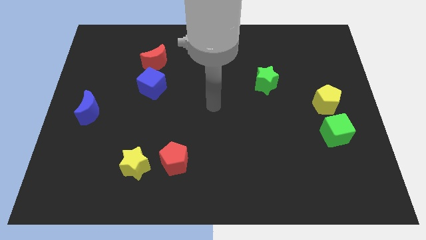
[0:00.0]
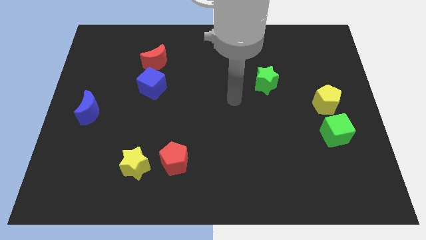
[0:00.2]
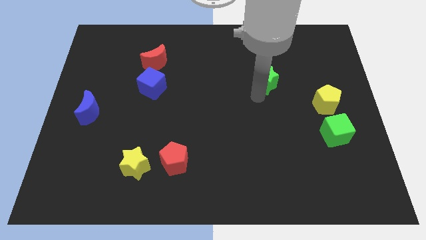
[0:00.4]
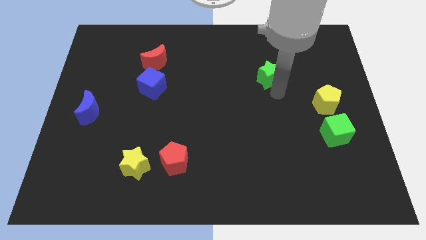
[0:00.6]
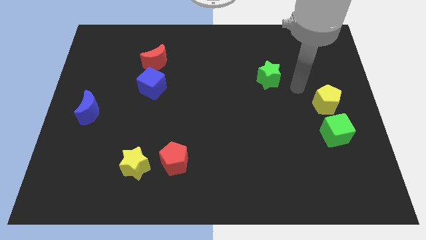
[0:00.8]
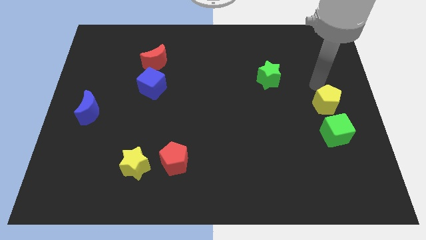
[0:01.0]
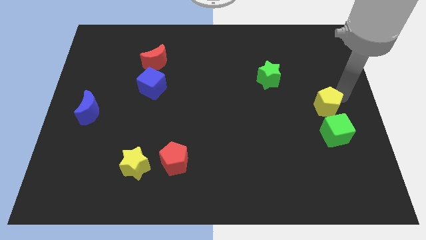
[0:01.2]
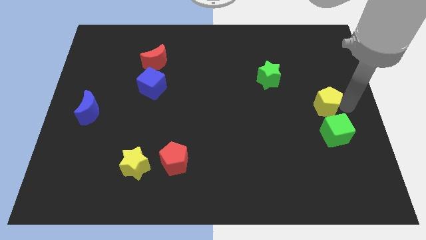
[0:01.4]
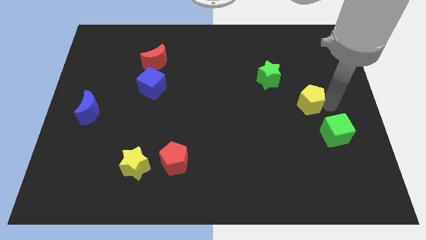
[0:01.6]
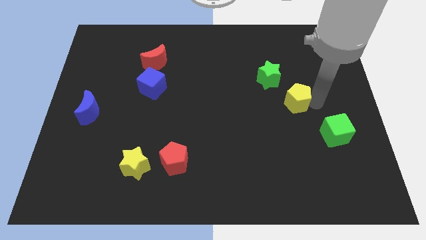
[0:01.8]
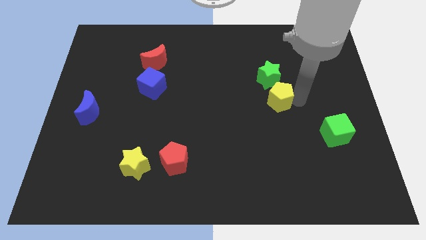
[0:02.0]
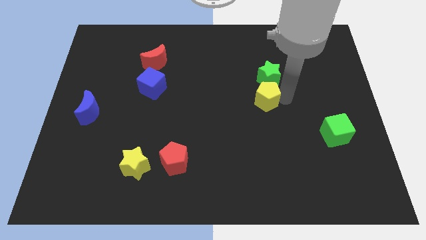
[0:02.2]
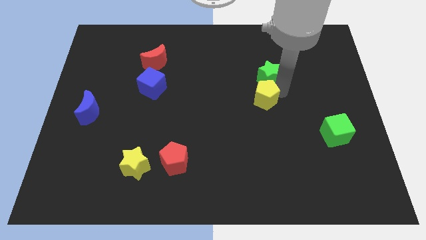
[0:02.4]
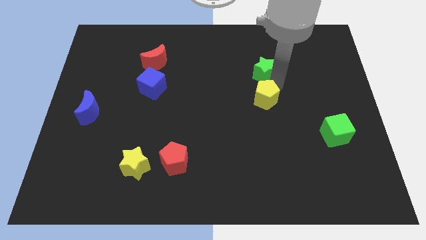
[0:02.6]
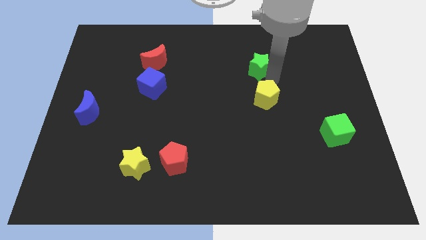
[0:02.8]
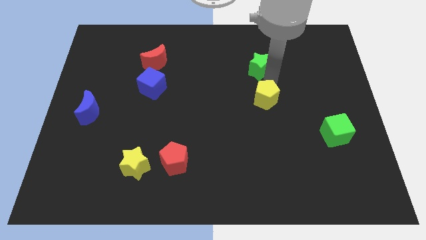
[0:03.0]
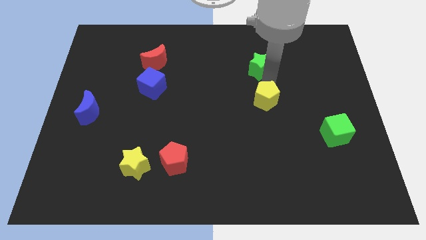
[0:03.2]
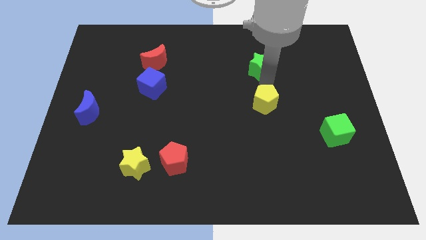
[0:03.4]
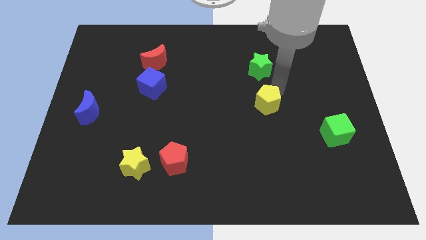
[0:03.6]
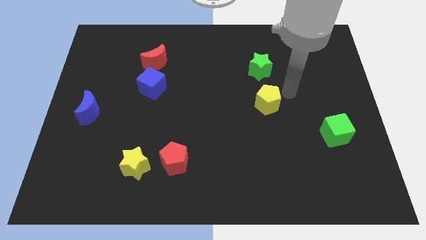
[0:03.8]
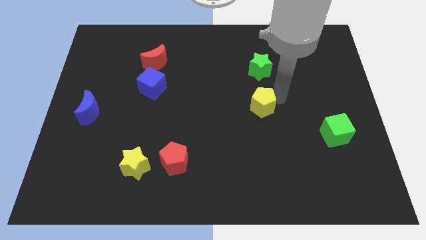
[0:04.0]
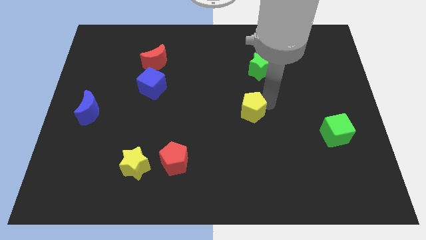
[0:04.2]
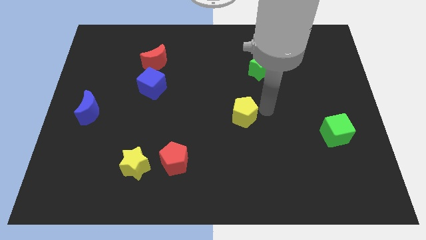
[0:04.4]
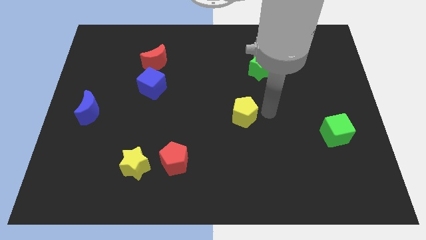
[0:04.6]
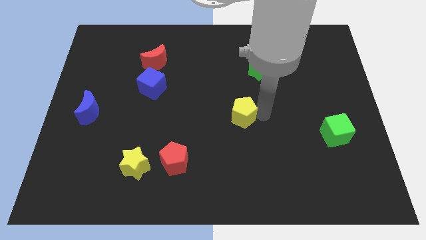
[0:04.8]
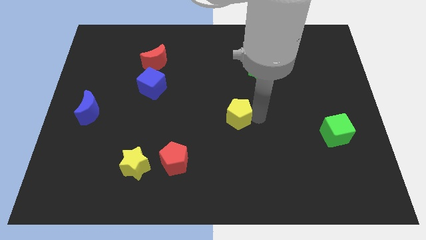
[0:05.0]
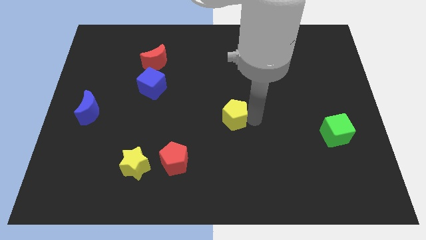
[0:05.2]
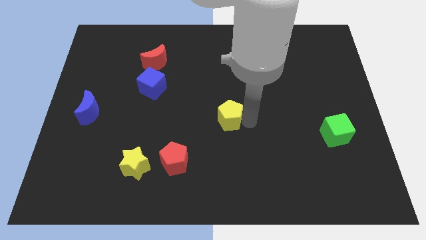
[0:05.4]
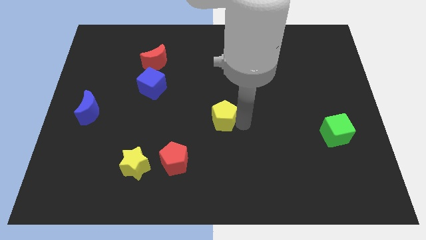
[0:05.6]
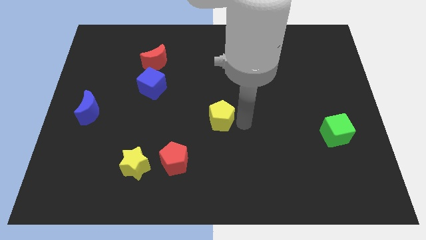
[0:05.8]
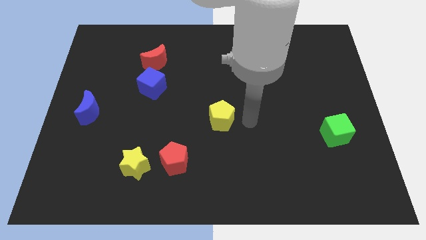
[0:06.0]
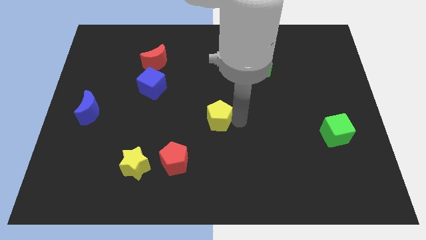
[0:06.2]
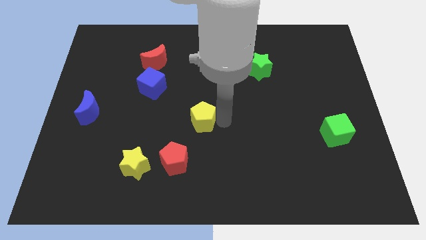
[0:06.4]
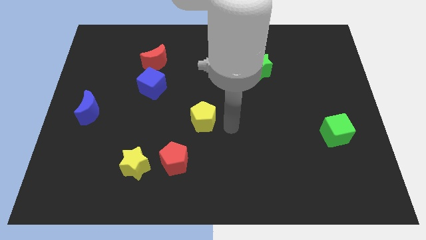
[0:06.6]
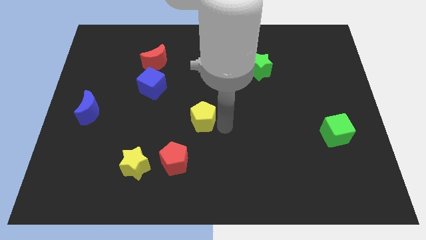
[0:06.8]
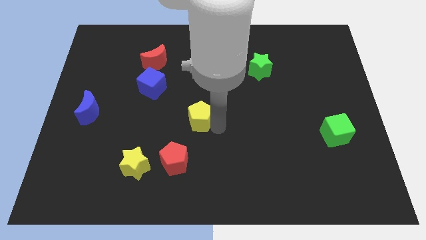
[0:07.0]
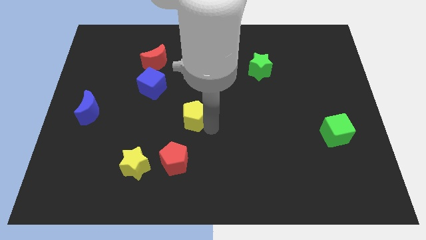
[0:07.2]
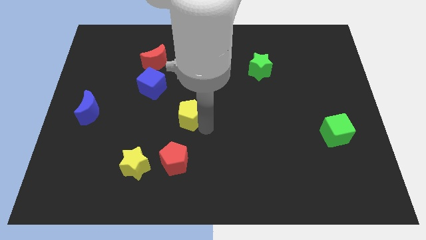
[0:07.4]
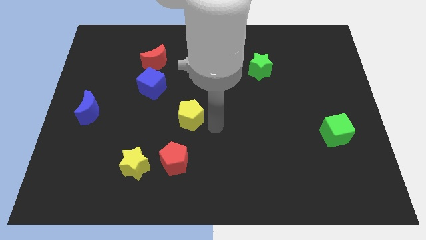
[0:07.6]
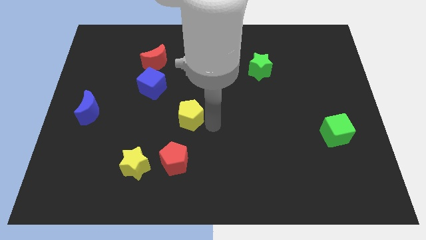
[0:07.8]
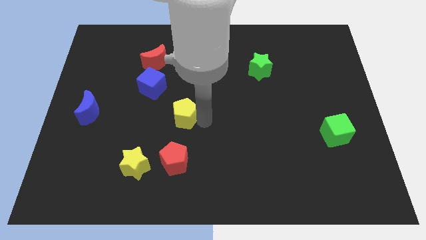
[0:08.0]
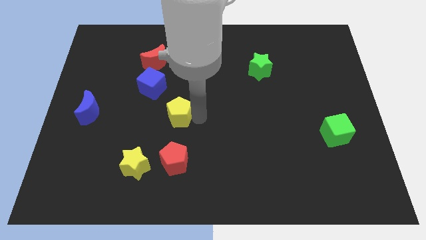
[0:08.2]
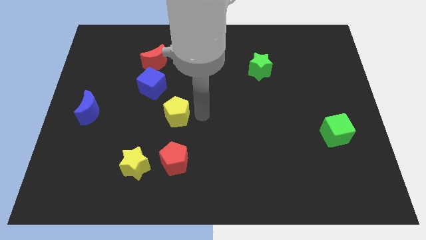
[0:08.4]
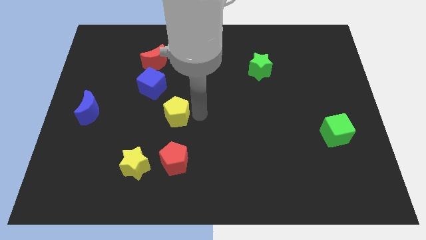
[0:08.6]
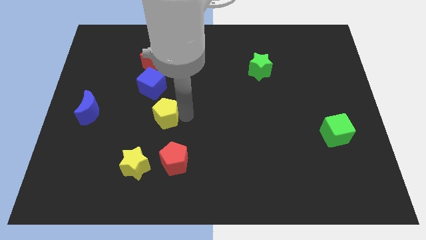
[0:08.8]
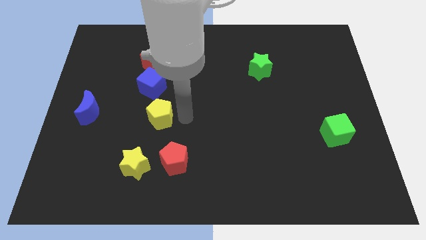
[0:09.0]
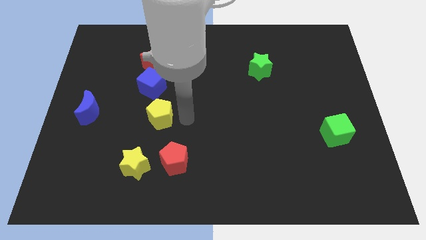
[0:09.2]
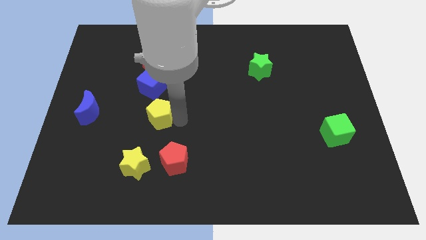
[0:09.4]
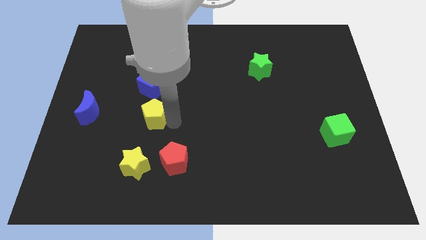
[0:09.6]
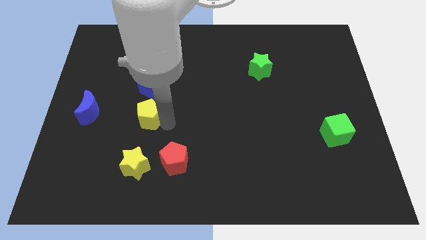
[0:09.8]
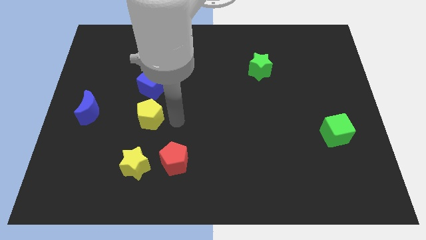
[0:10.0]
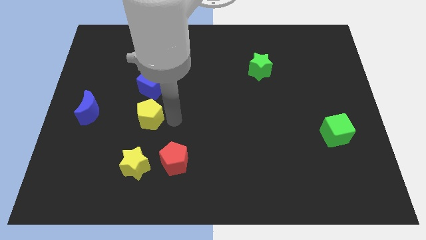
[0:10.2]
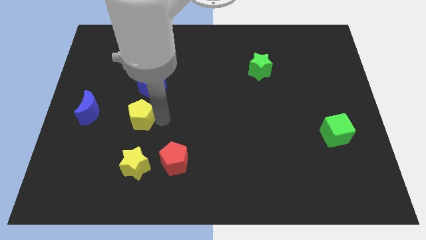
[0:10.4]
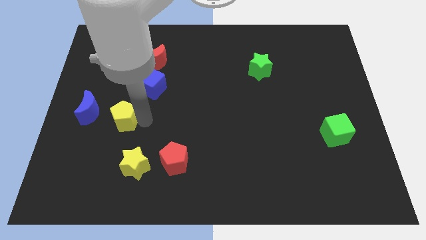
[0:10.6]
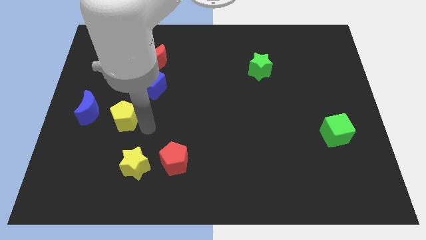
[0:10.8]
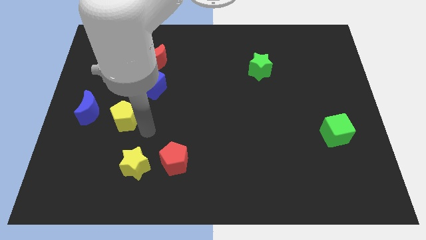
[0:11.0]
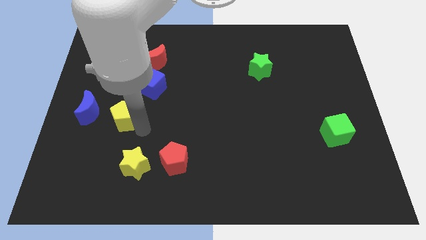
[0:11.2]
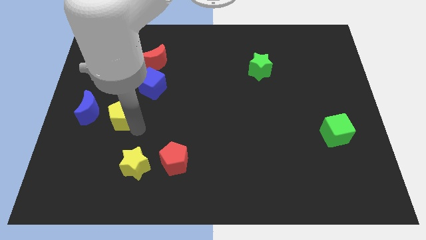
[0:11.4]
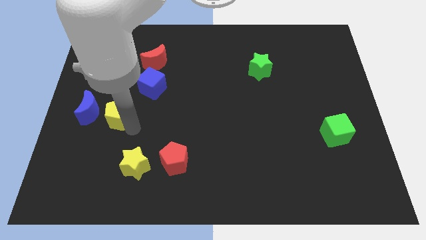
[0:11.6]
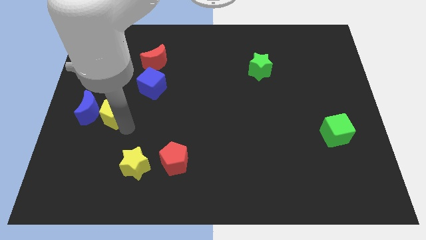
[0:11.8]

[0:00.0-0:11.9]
push the yellow pentagon next to the blue moon

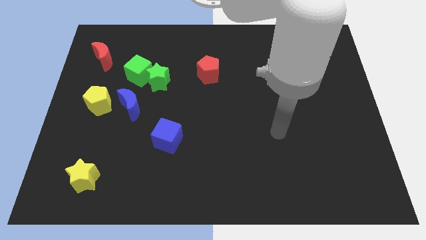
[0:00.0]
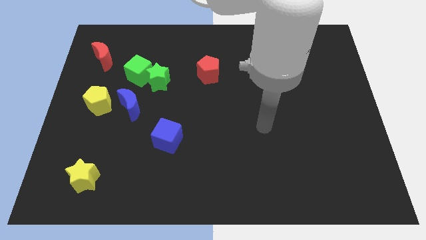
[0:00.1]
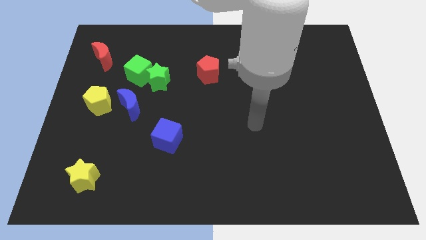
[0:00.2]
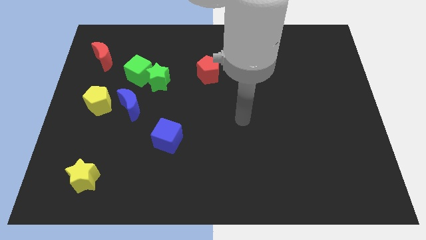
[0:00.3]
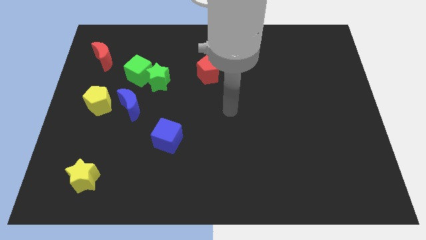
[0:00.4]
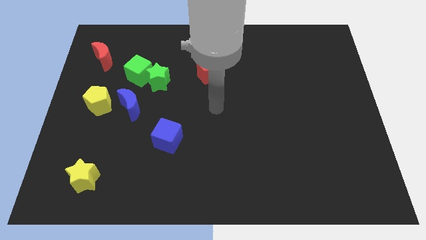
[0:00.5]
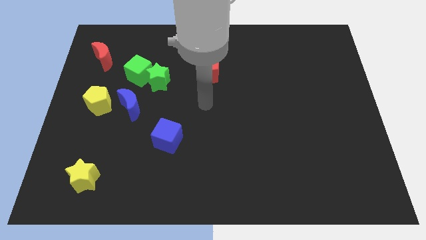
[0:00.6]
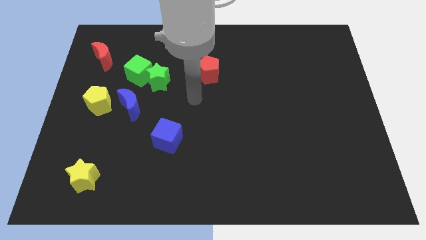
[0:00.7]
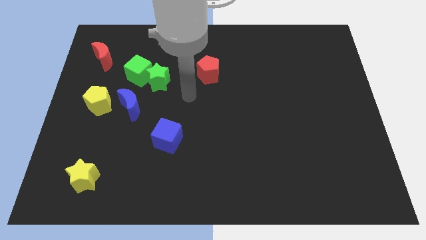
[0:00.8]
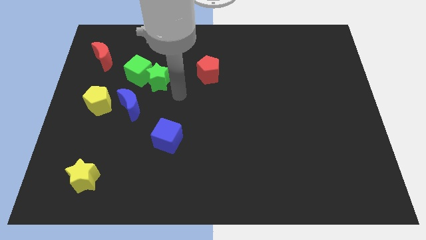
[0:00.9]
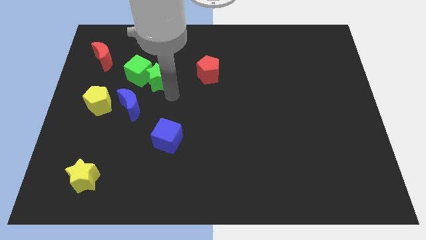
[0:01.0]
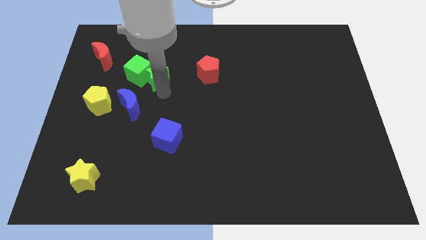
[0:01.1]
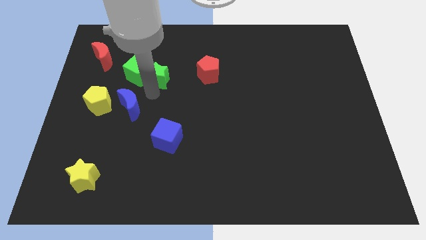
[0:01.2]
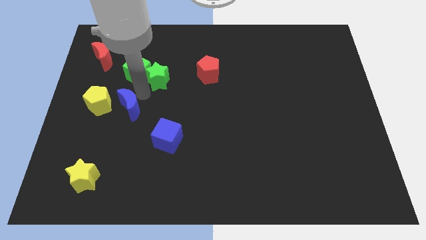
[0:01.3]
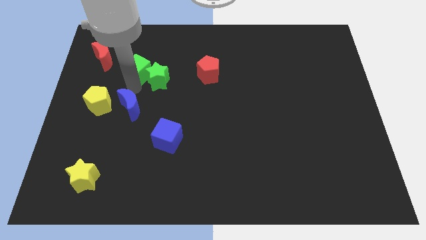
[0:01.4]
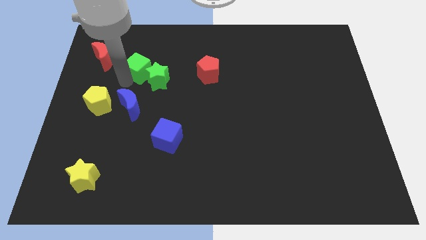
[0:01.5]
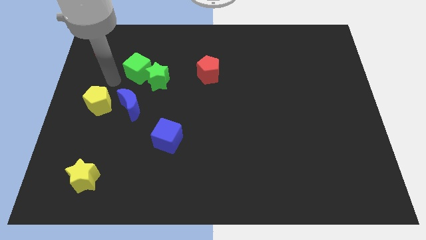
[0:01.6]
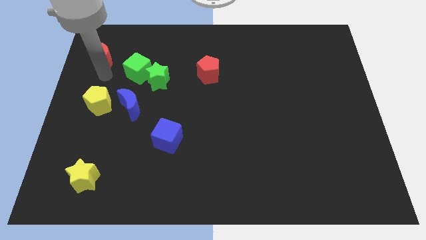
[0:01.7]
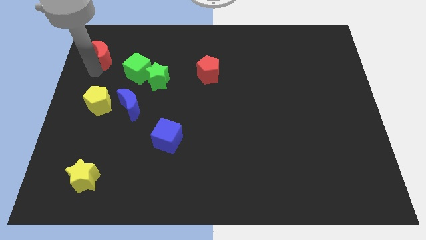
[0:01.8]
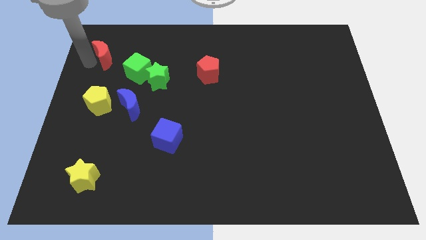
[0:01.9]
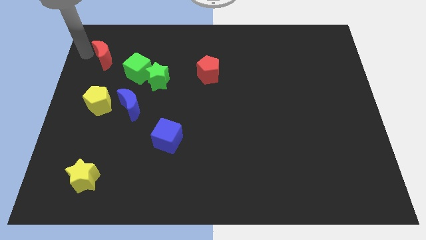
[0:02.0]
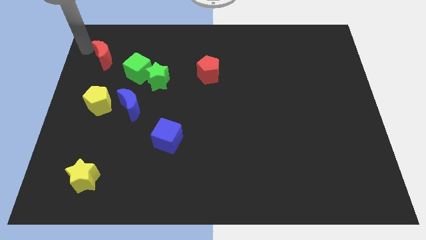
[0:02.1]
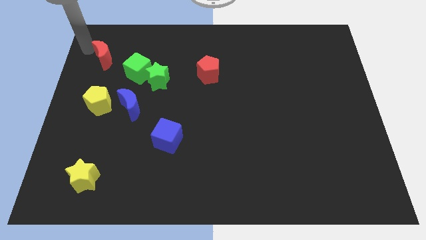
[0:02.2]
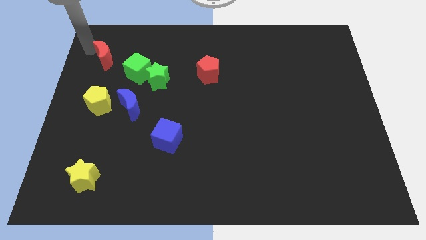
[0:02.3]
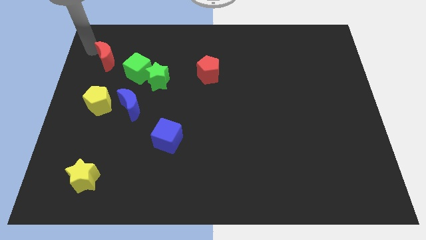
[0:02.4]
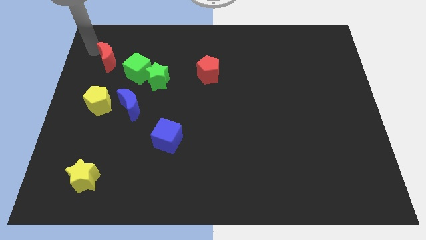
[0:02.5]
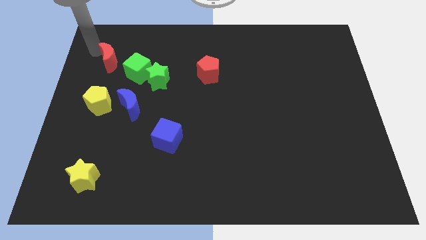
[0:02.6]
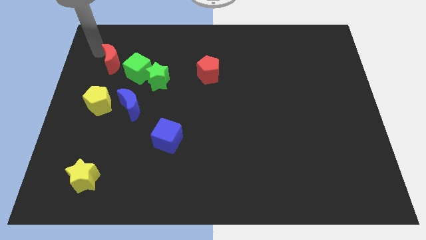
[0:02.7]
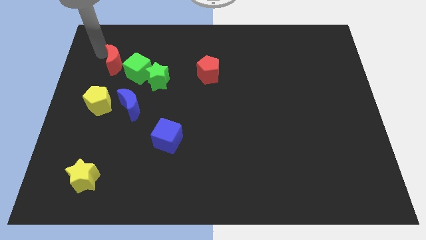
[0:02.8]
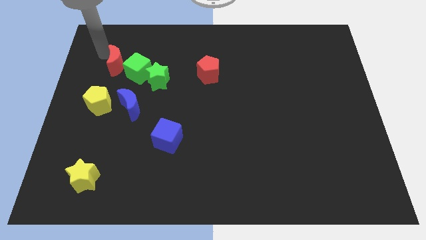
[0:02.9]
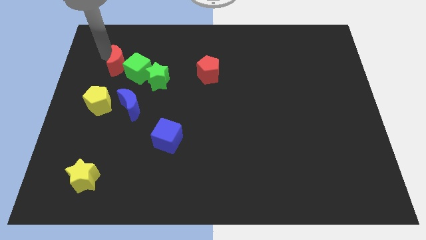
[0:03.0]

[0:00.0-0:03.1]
put the red moon close to the green cube
